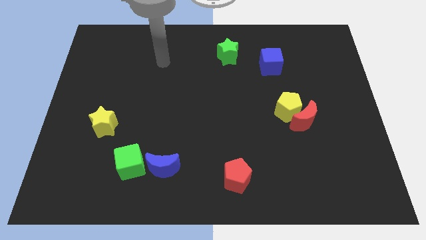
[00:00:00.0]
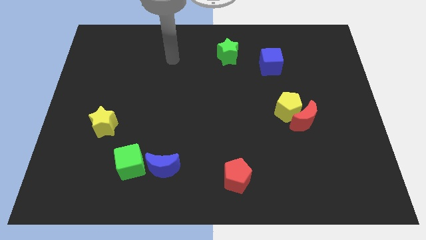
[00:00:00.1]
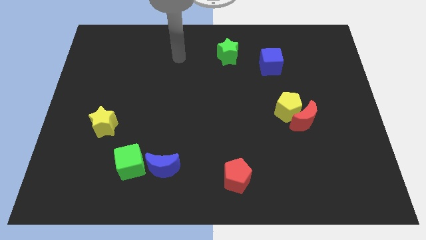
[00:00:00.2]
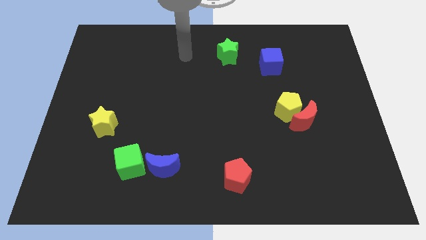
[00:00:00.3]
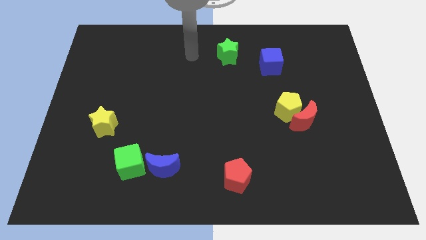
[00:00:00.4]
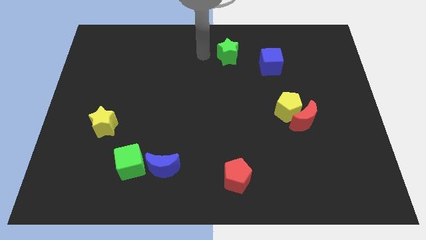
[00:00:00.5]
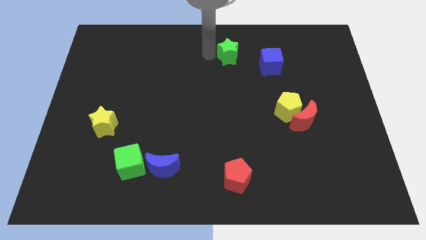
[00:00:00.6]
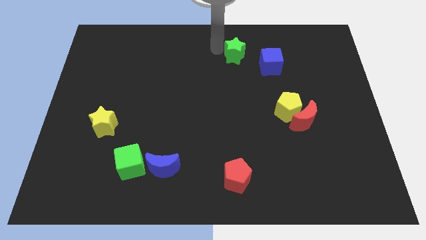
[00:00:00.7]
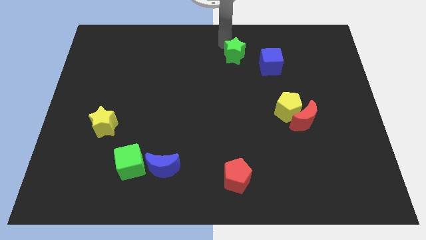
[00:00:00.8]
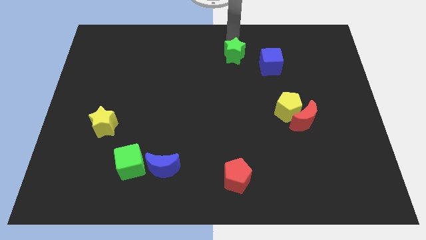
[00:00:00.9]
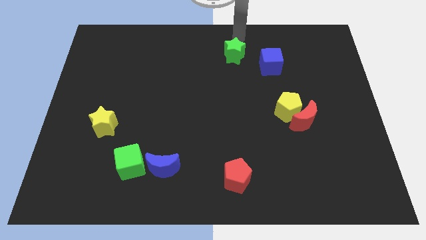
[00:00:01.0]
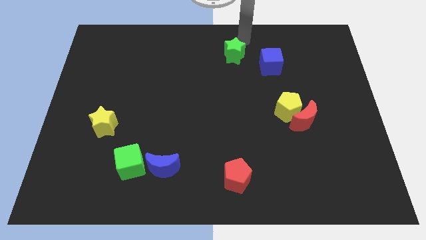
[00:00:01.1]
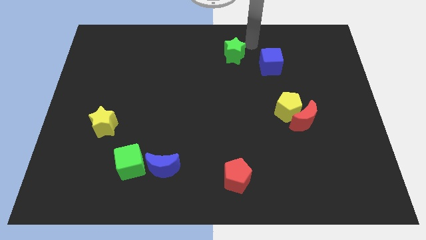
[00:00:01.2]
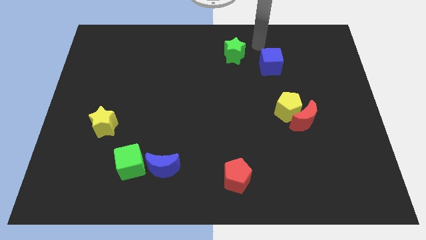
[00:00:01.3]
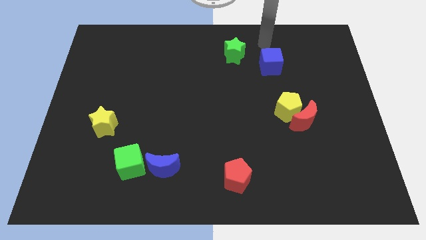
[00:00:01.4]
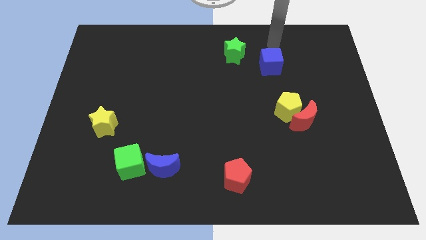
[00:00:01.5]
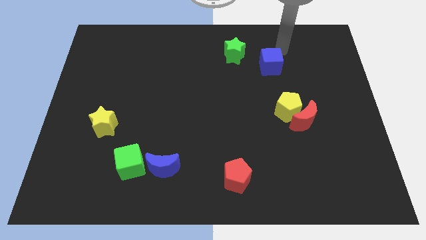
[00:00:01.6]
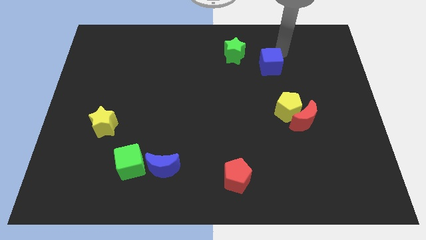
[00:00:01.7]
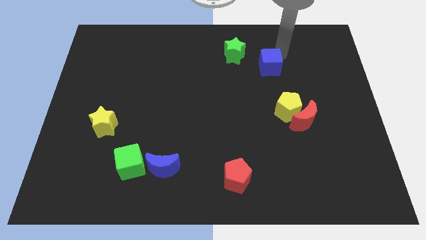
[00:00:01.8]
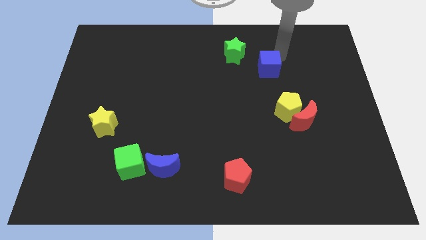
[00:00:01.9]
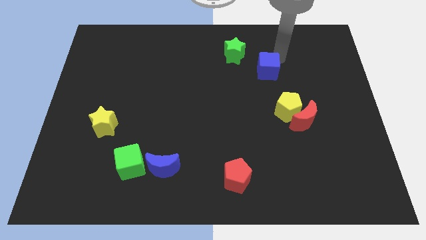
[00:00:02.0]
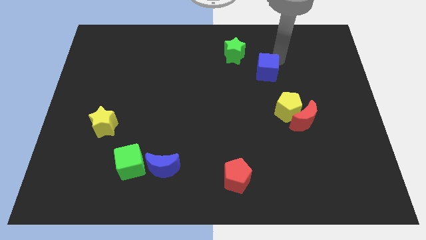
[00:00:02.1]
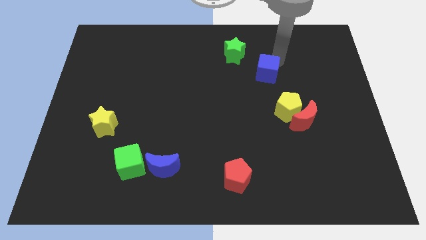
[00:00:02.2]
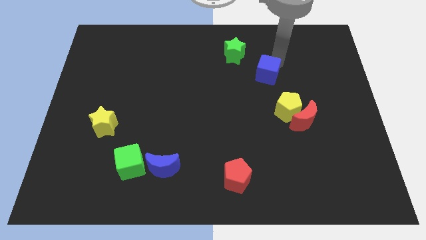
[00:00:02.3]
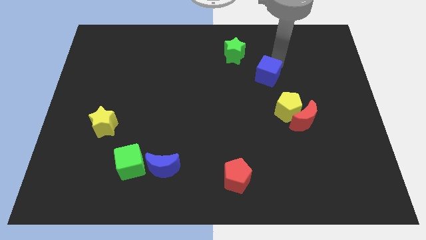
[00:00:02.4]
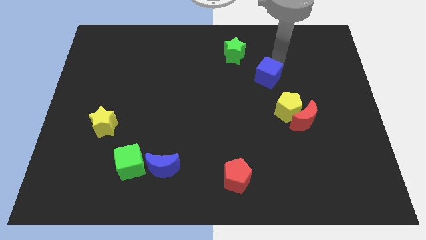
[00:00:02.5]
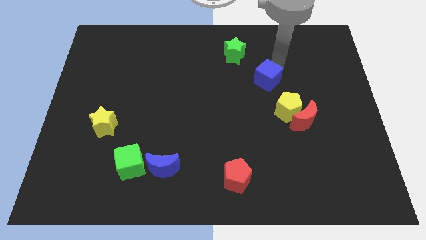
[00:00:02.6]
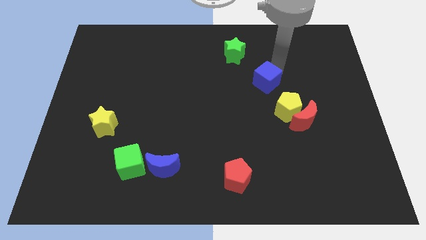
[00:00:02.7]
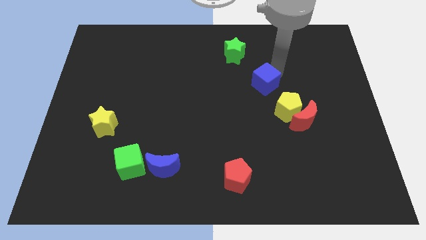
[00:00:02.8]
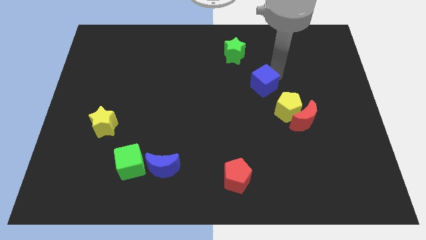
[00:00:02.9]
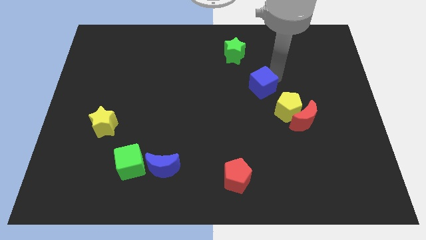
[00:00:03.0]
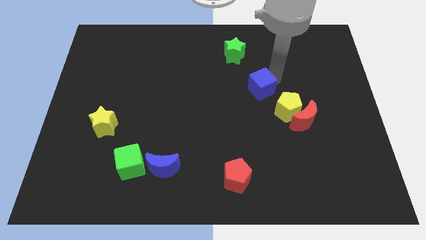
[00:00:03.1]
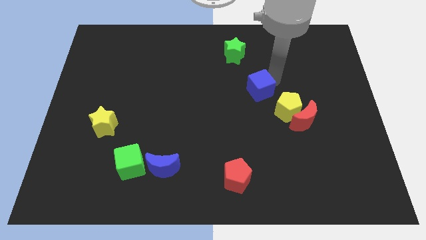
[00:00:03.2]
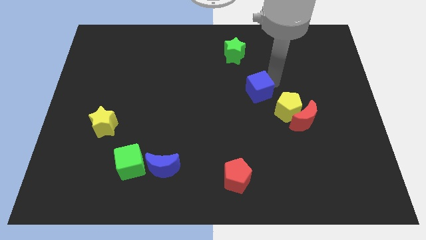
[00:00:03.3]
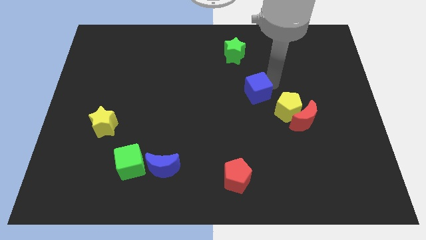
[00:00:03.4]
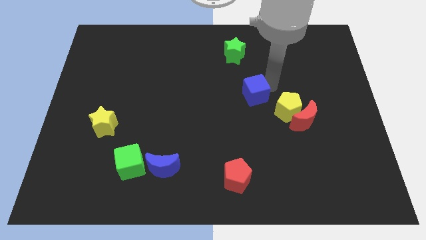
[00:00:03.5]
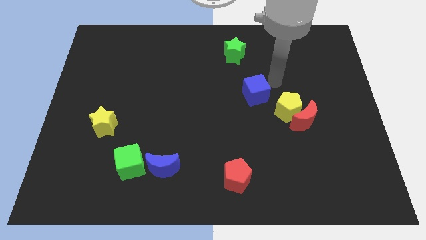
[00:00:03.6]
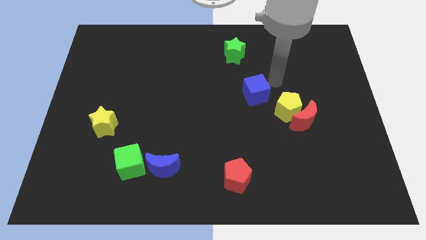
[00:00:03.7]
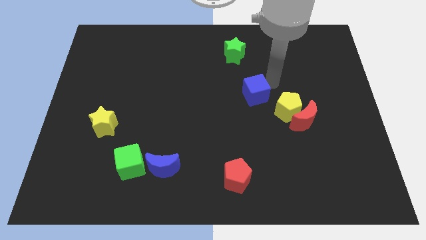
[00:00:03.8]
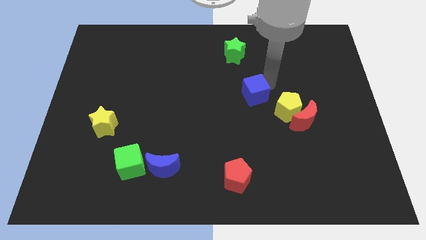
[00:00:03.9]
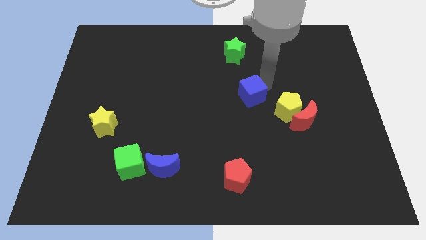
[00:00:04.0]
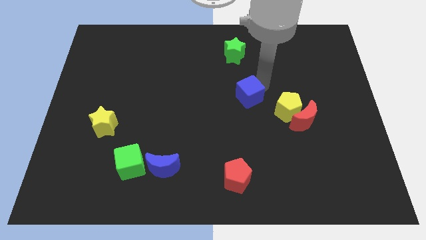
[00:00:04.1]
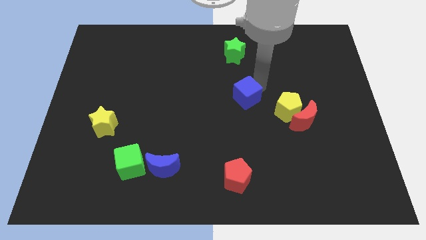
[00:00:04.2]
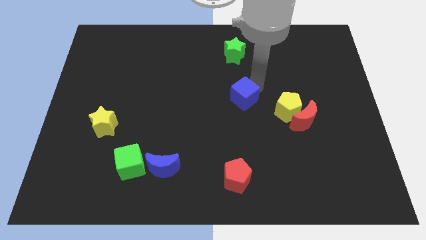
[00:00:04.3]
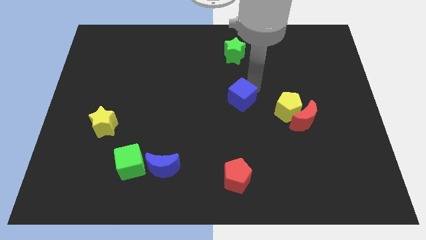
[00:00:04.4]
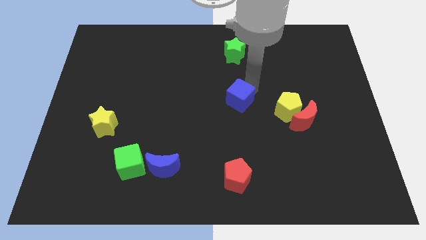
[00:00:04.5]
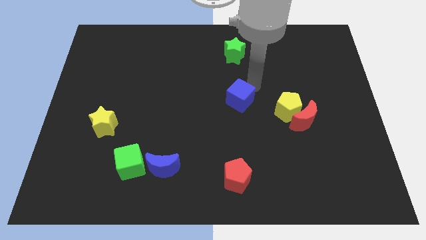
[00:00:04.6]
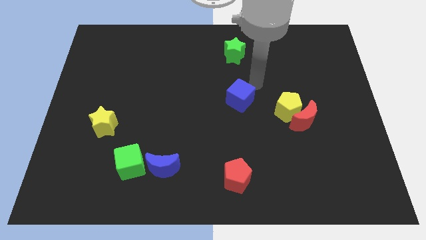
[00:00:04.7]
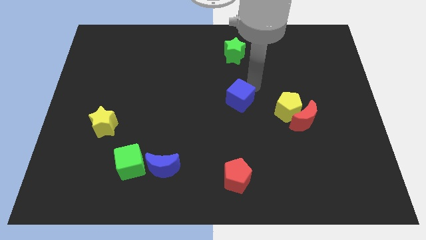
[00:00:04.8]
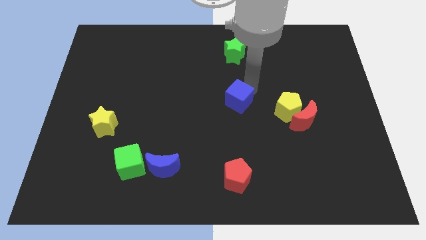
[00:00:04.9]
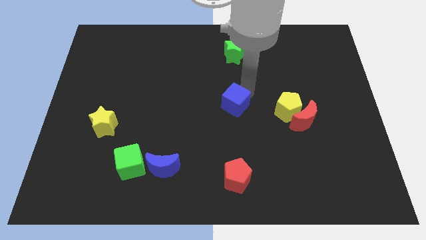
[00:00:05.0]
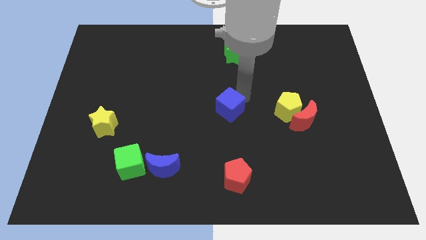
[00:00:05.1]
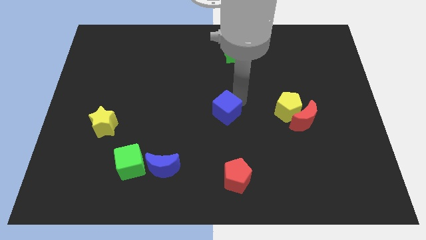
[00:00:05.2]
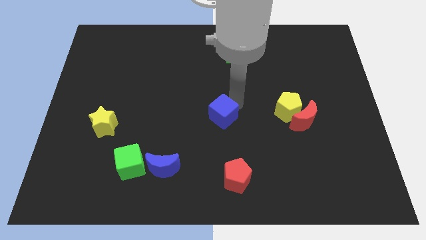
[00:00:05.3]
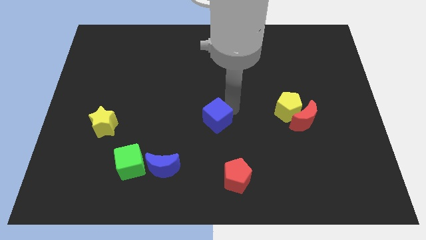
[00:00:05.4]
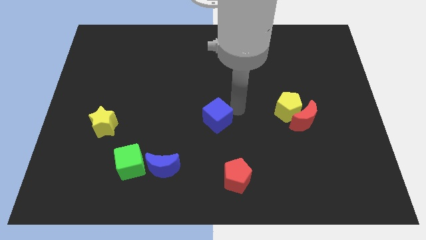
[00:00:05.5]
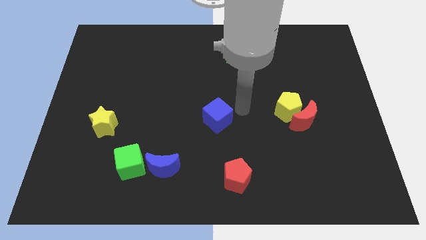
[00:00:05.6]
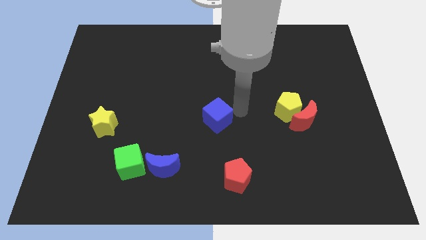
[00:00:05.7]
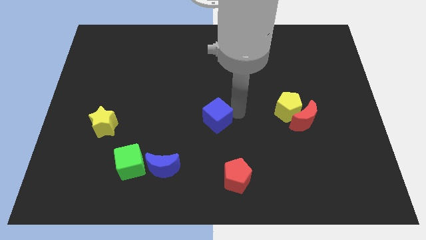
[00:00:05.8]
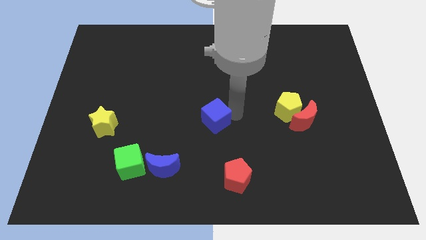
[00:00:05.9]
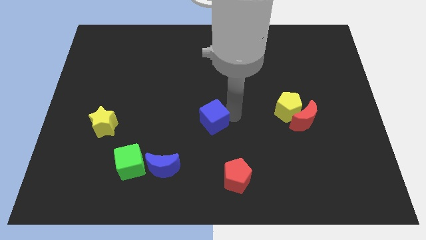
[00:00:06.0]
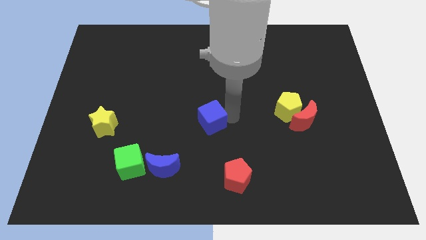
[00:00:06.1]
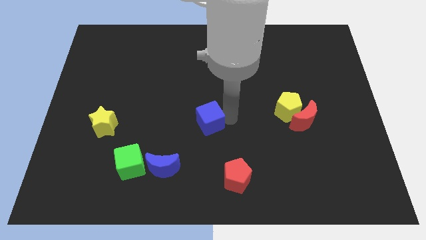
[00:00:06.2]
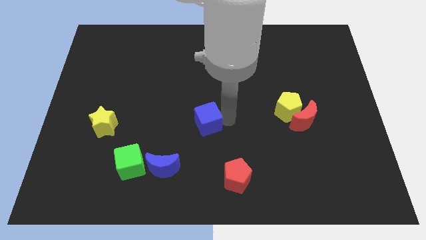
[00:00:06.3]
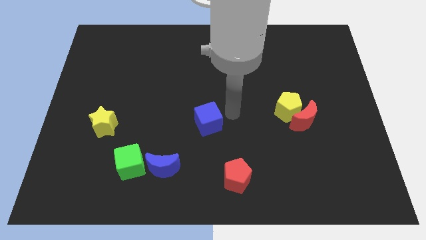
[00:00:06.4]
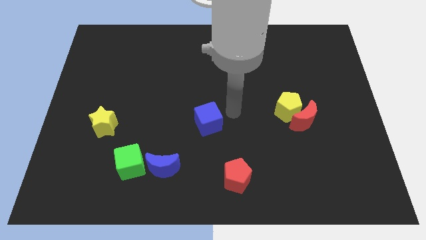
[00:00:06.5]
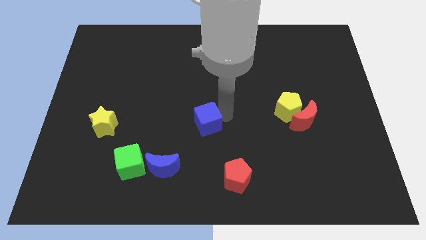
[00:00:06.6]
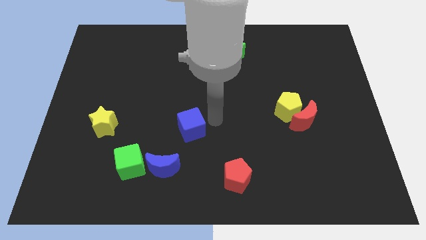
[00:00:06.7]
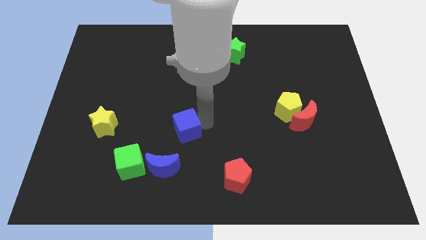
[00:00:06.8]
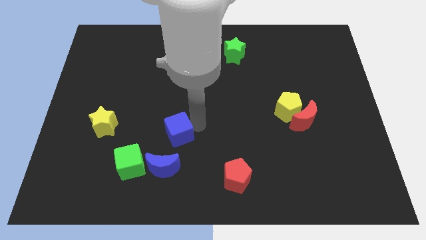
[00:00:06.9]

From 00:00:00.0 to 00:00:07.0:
put the blue cube diagonally up and to the right of the green cube
